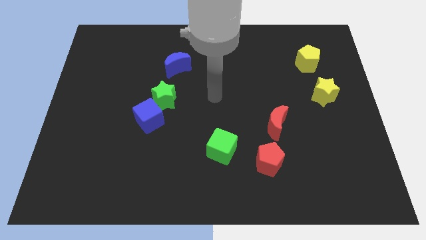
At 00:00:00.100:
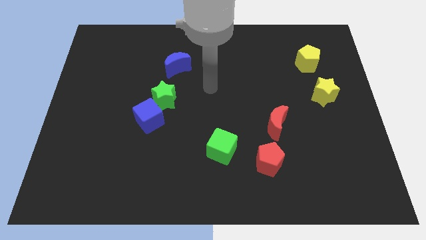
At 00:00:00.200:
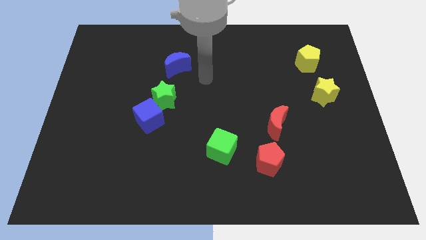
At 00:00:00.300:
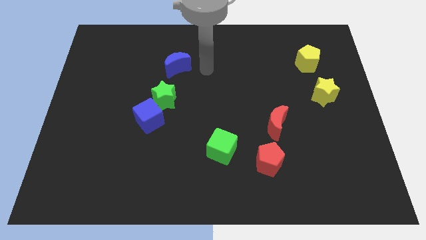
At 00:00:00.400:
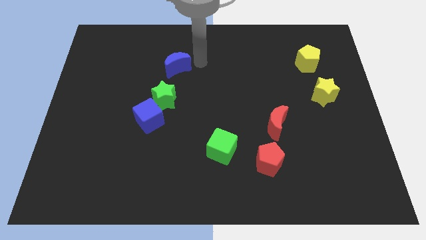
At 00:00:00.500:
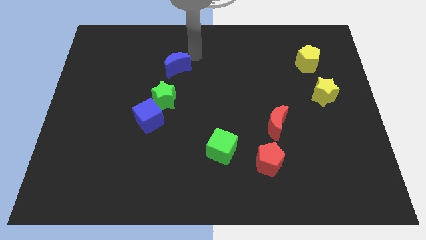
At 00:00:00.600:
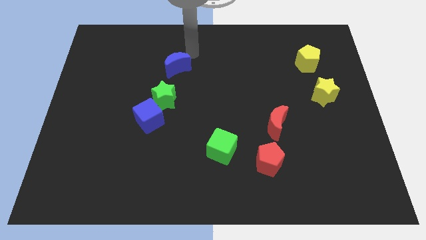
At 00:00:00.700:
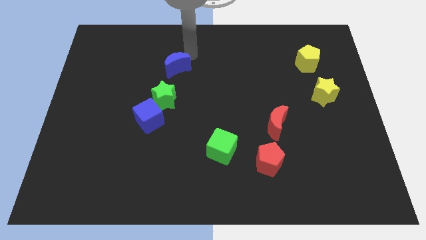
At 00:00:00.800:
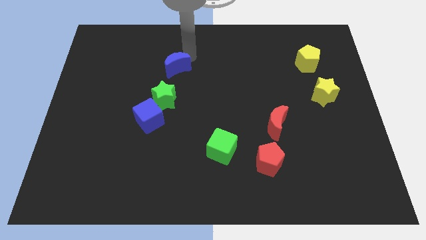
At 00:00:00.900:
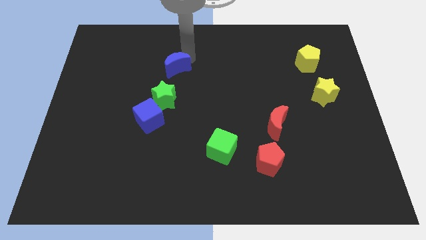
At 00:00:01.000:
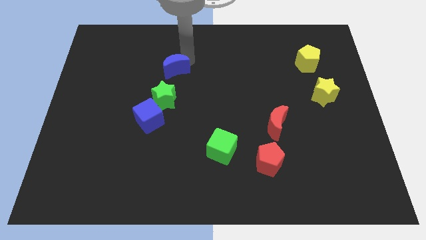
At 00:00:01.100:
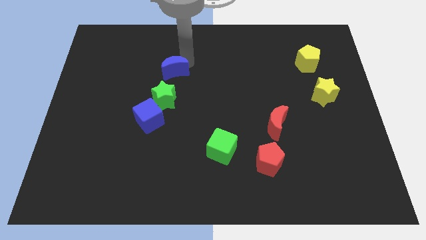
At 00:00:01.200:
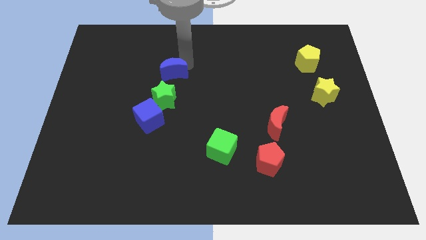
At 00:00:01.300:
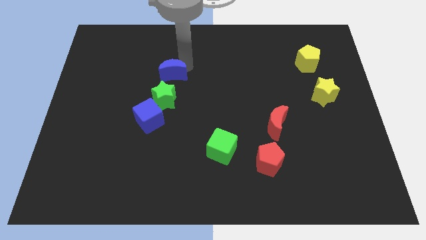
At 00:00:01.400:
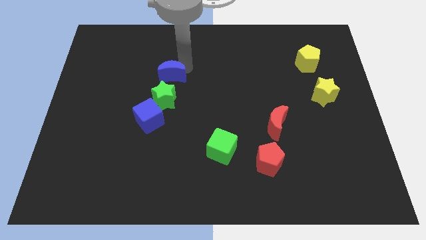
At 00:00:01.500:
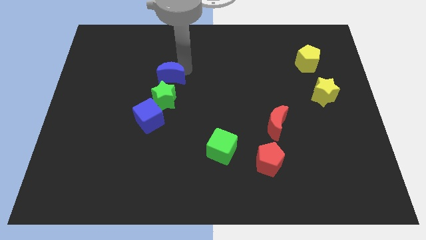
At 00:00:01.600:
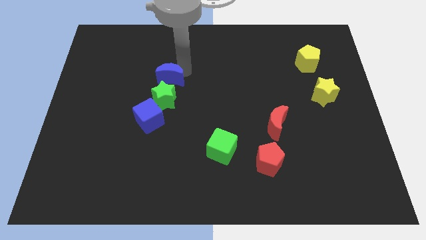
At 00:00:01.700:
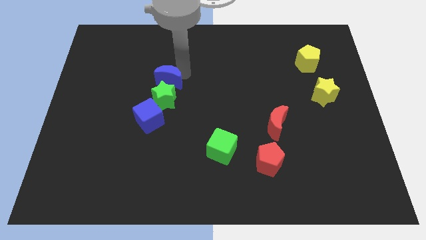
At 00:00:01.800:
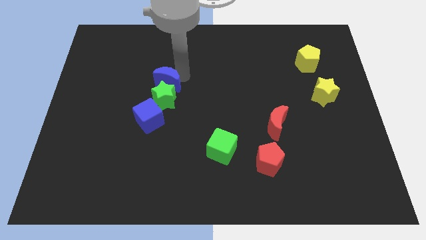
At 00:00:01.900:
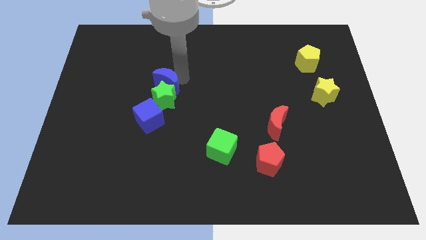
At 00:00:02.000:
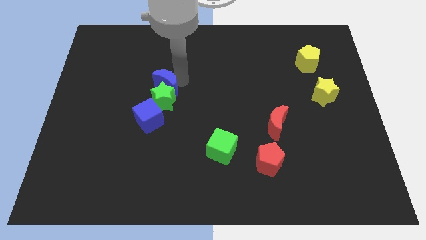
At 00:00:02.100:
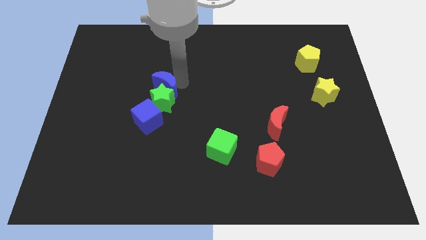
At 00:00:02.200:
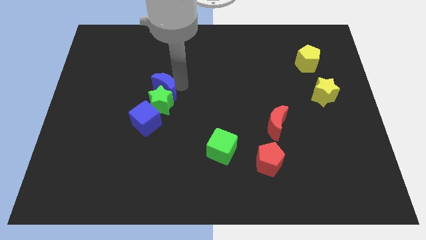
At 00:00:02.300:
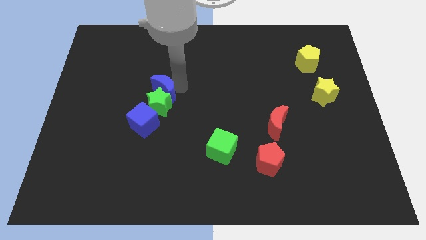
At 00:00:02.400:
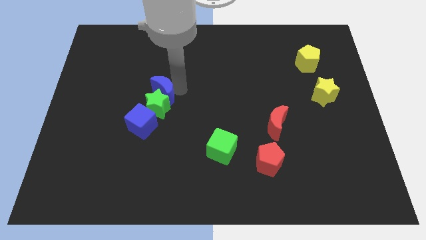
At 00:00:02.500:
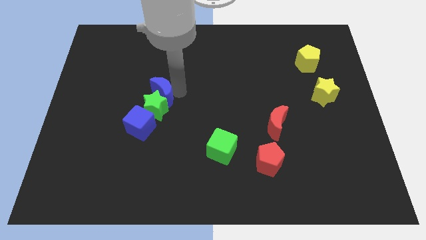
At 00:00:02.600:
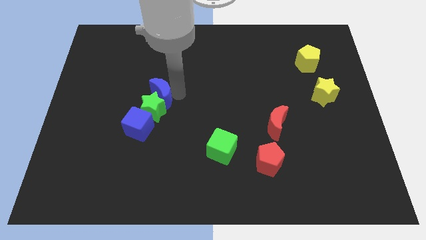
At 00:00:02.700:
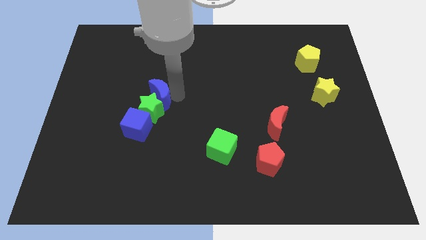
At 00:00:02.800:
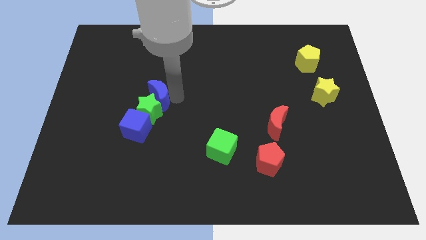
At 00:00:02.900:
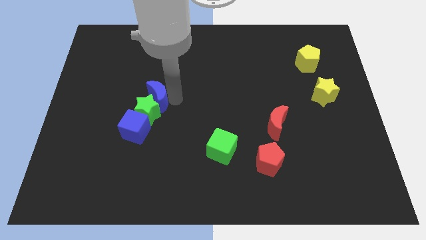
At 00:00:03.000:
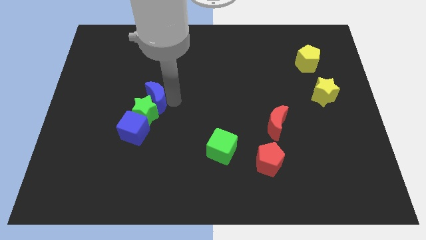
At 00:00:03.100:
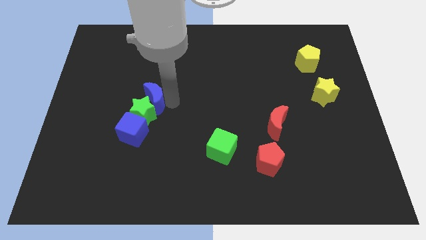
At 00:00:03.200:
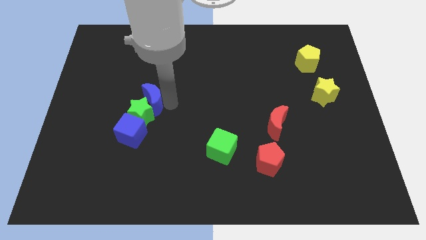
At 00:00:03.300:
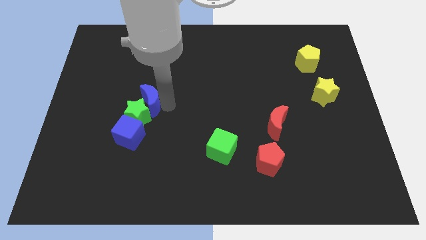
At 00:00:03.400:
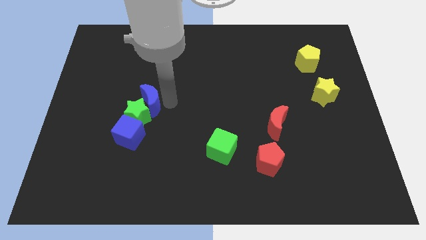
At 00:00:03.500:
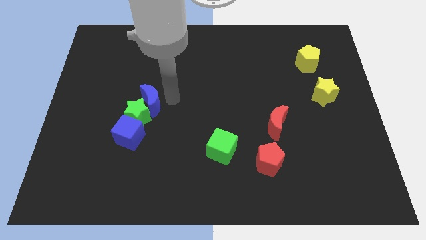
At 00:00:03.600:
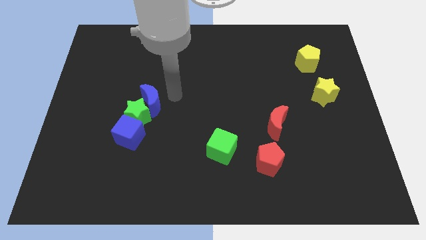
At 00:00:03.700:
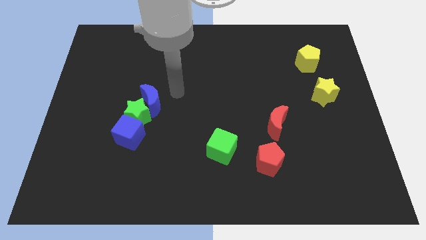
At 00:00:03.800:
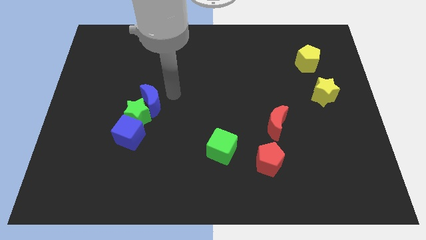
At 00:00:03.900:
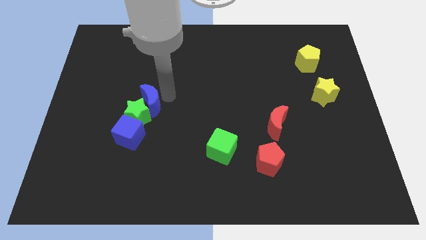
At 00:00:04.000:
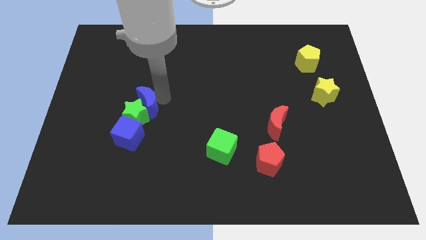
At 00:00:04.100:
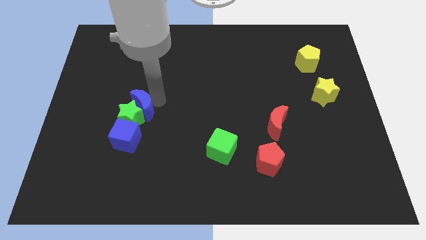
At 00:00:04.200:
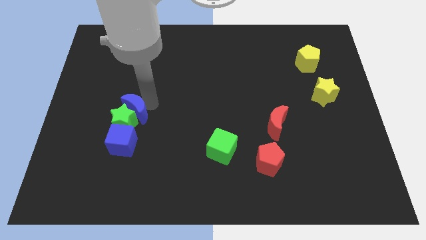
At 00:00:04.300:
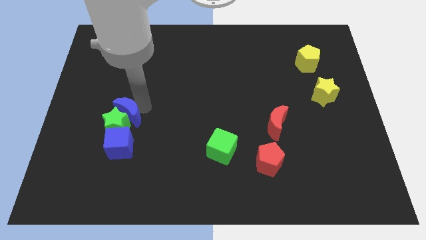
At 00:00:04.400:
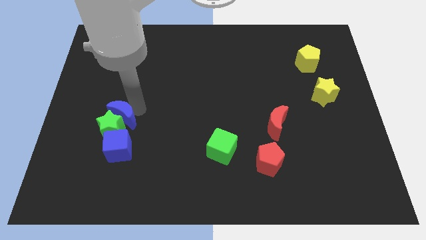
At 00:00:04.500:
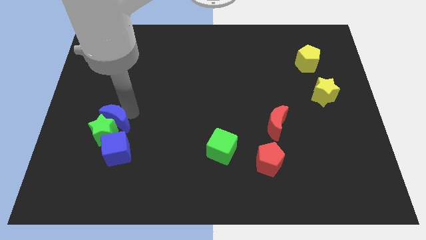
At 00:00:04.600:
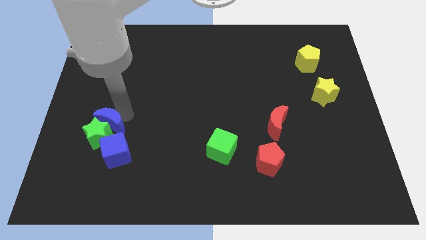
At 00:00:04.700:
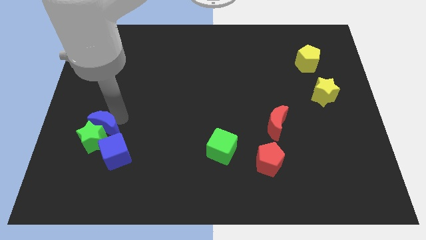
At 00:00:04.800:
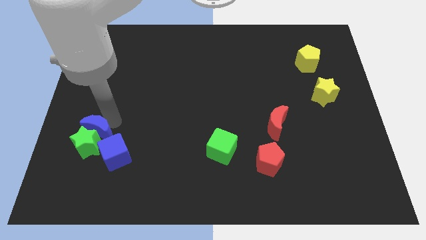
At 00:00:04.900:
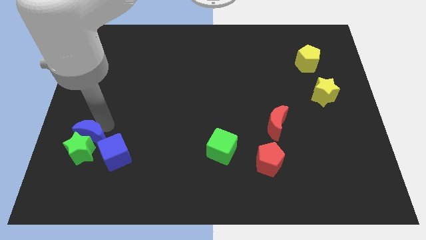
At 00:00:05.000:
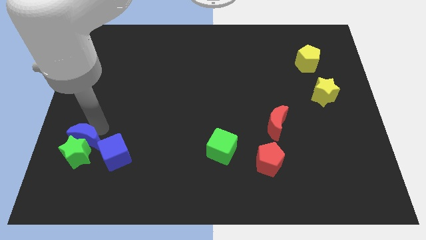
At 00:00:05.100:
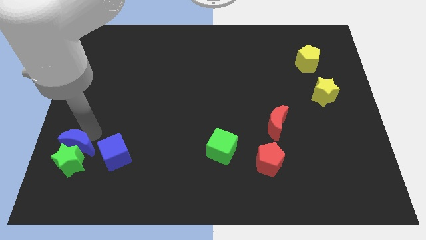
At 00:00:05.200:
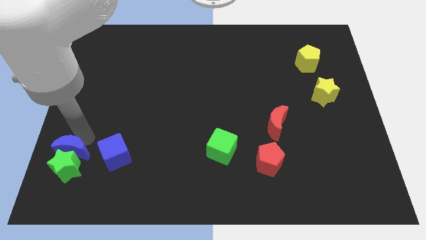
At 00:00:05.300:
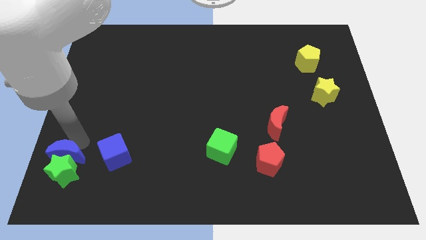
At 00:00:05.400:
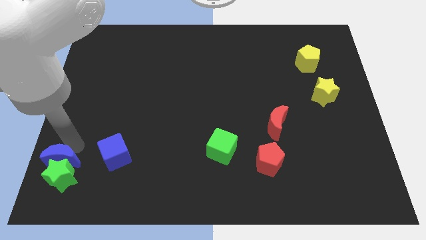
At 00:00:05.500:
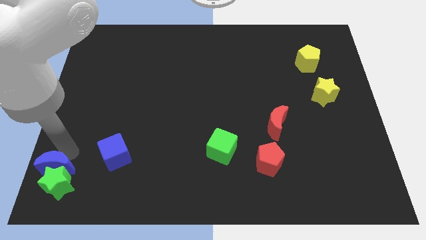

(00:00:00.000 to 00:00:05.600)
put the blue moon to the lower left corner

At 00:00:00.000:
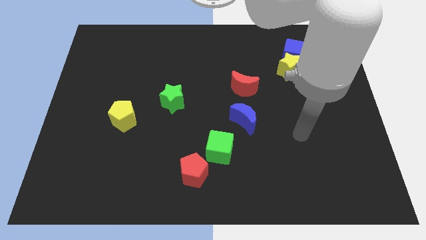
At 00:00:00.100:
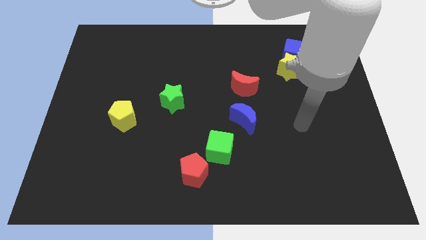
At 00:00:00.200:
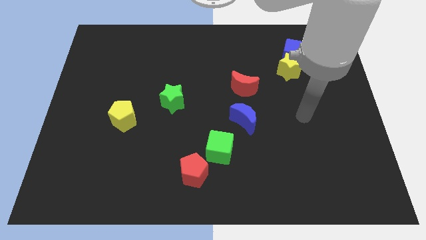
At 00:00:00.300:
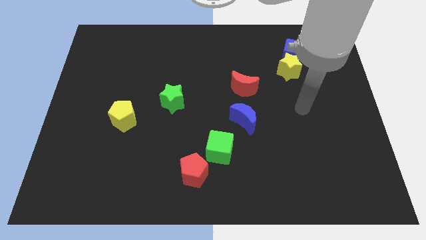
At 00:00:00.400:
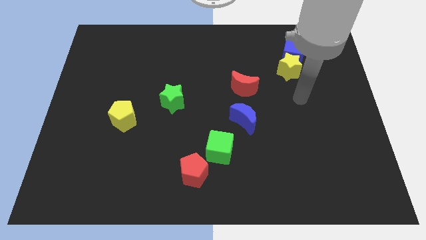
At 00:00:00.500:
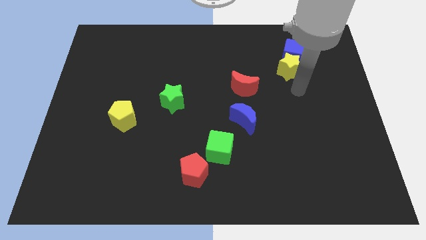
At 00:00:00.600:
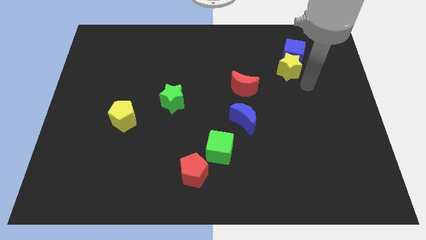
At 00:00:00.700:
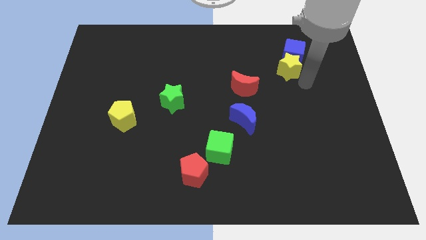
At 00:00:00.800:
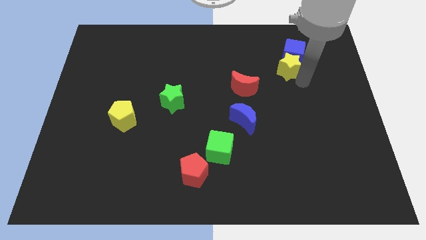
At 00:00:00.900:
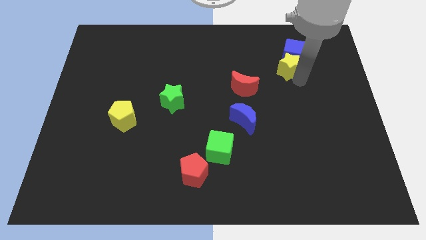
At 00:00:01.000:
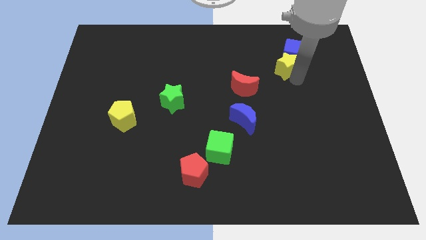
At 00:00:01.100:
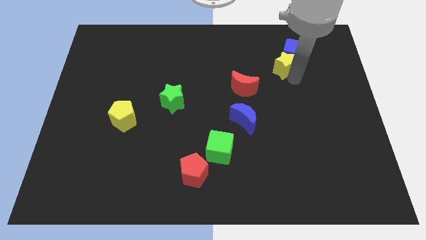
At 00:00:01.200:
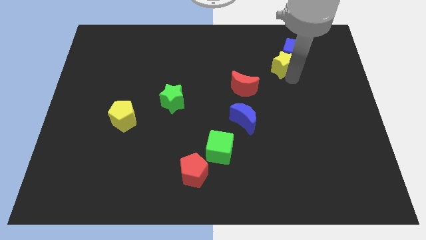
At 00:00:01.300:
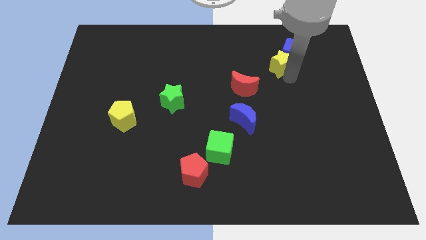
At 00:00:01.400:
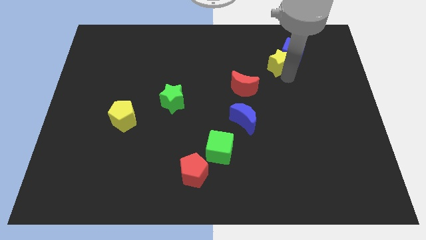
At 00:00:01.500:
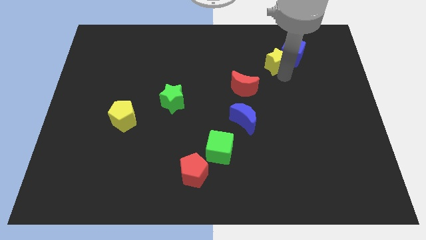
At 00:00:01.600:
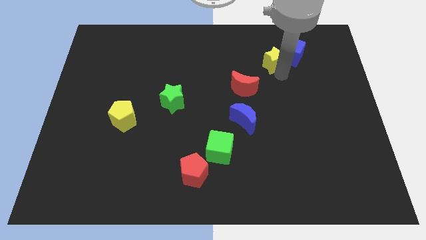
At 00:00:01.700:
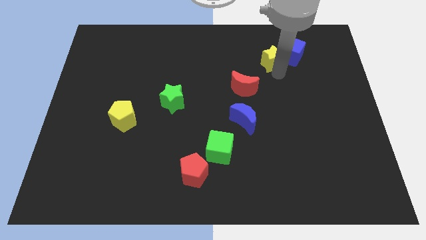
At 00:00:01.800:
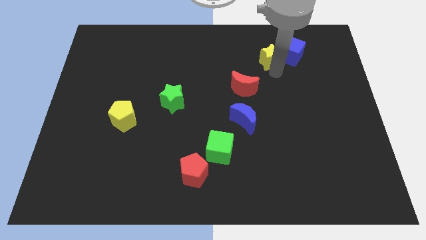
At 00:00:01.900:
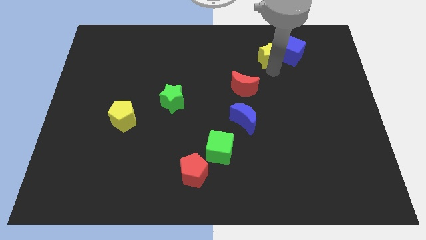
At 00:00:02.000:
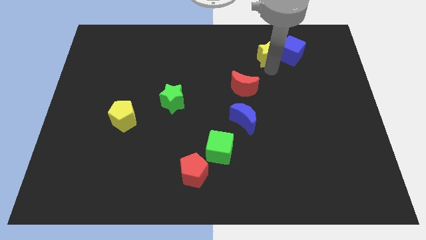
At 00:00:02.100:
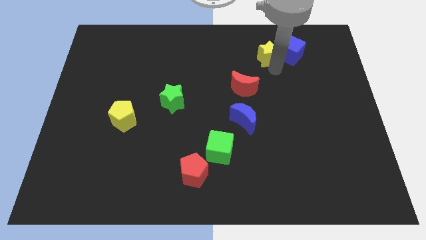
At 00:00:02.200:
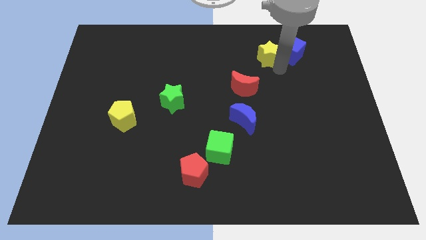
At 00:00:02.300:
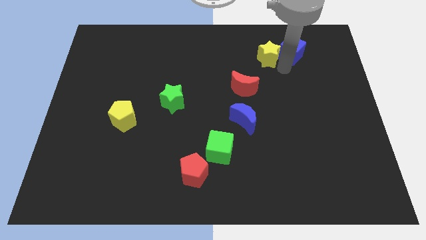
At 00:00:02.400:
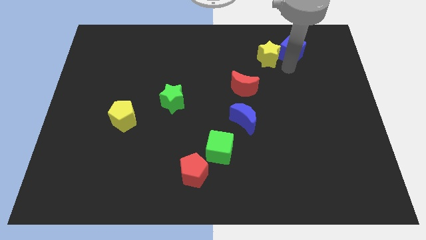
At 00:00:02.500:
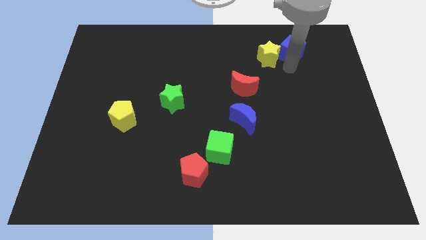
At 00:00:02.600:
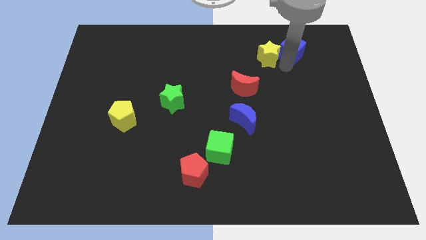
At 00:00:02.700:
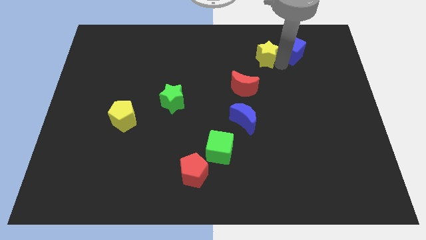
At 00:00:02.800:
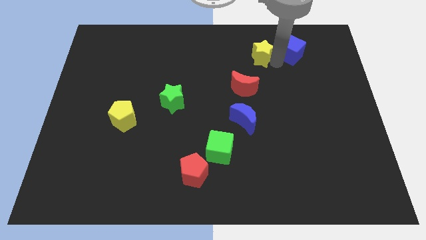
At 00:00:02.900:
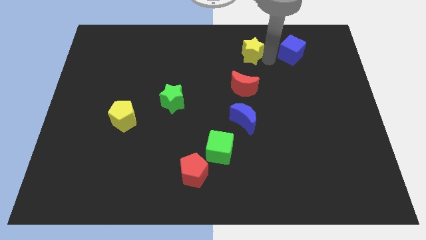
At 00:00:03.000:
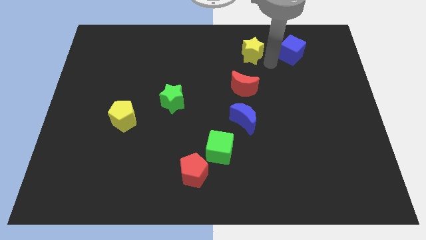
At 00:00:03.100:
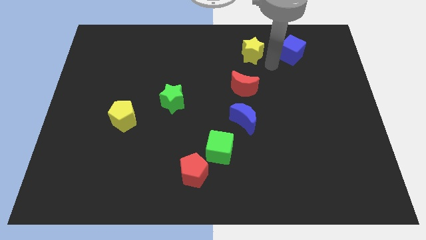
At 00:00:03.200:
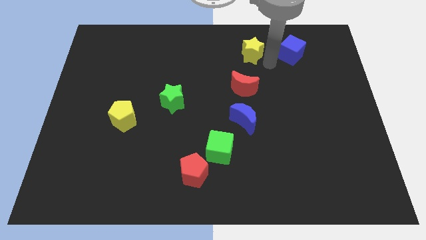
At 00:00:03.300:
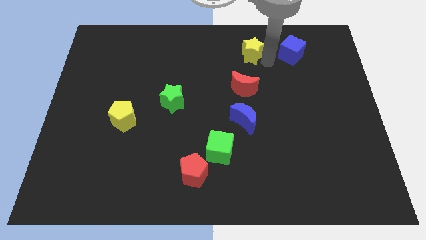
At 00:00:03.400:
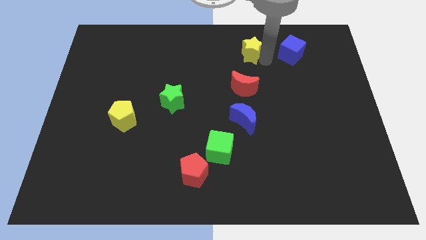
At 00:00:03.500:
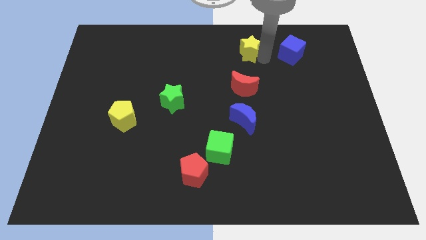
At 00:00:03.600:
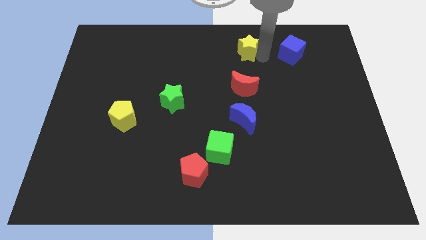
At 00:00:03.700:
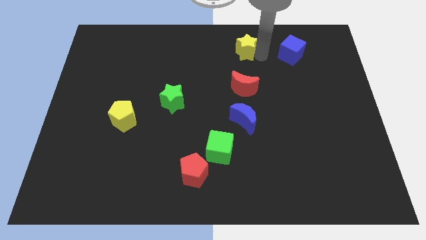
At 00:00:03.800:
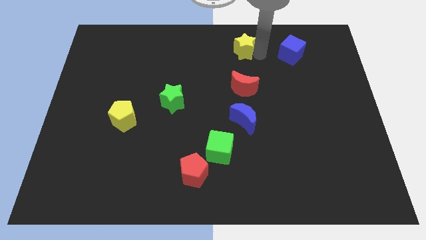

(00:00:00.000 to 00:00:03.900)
push the yellow star to the top side
